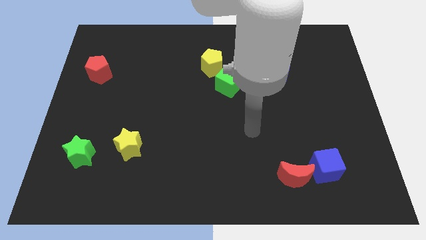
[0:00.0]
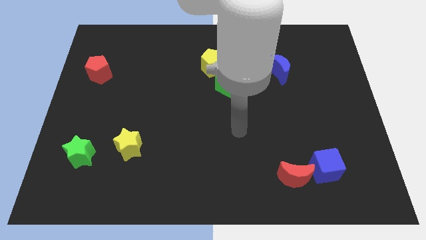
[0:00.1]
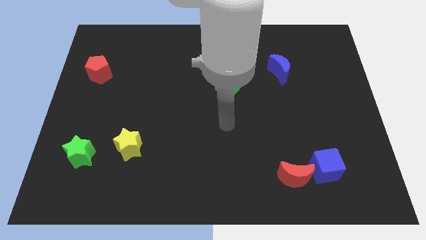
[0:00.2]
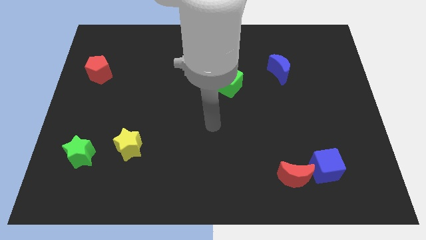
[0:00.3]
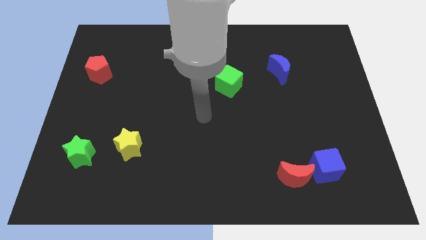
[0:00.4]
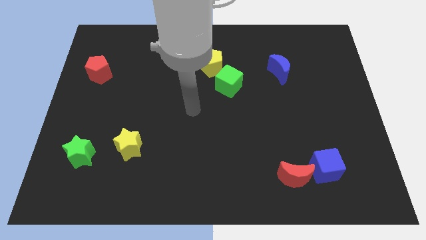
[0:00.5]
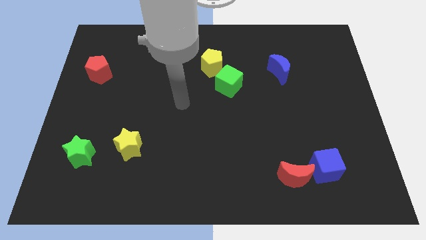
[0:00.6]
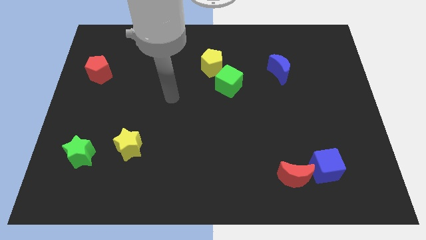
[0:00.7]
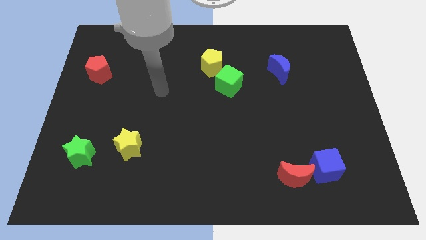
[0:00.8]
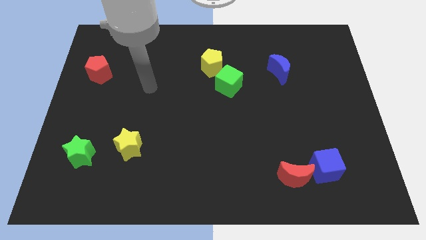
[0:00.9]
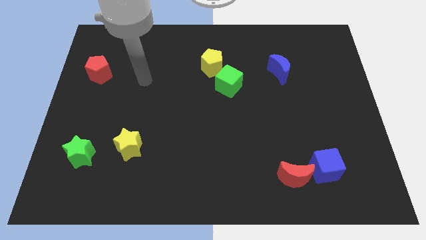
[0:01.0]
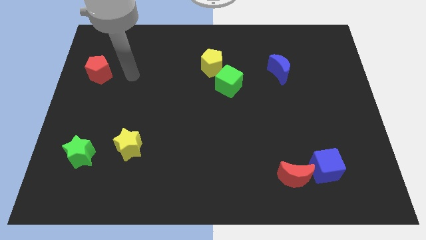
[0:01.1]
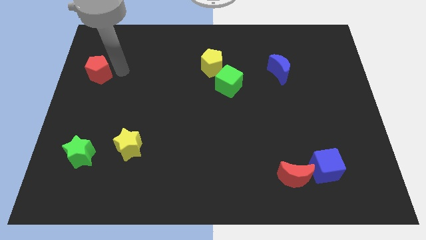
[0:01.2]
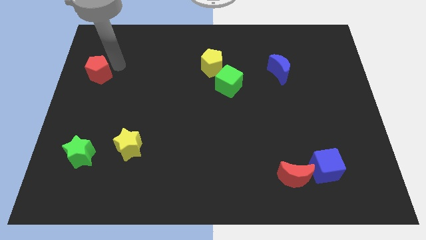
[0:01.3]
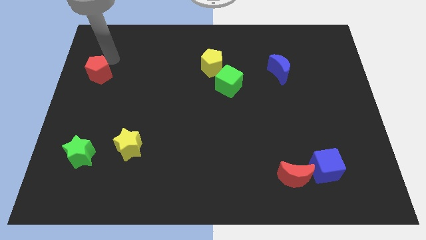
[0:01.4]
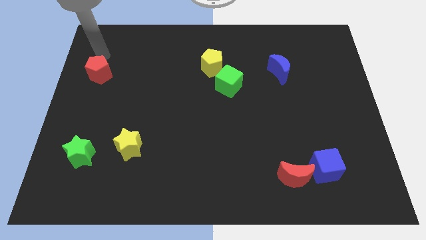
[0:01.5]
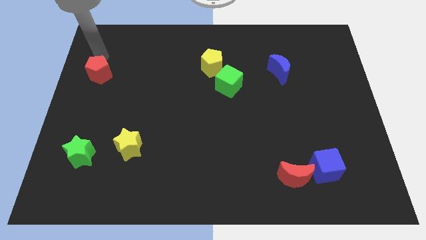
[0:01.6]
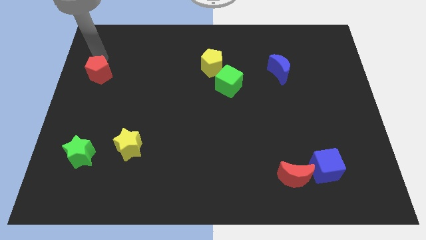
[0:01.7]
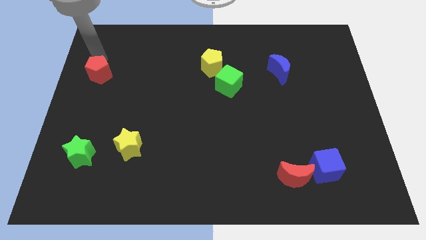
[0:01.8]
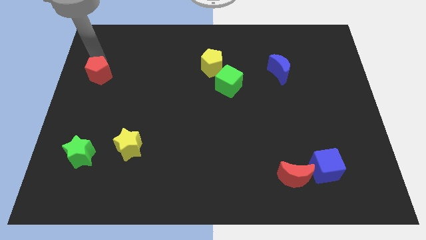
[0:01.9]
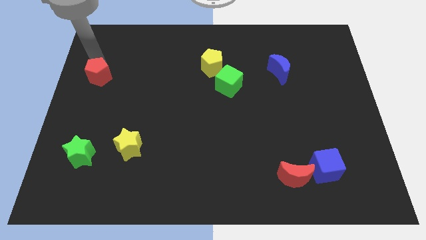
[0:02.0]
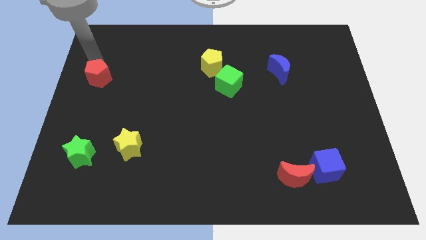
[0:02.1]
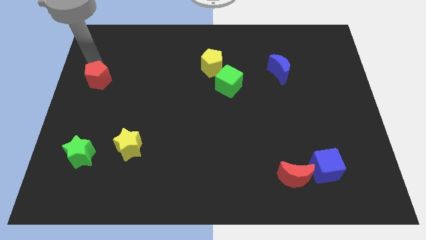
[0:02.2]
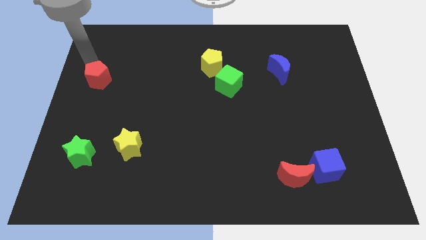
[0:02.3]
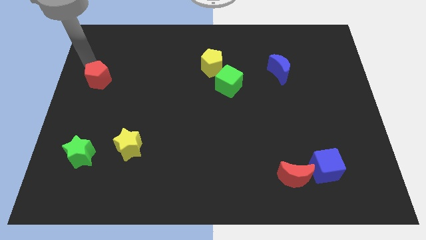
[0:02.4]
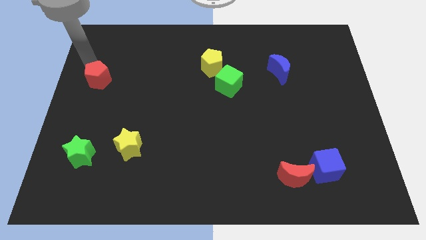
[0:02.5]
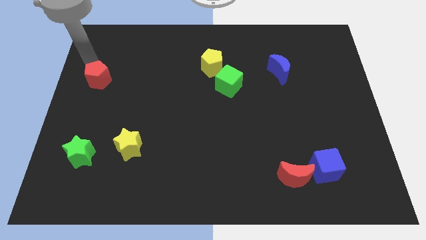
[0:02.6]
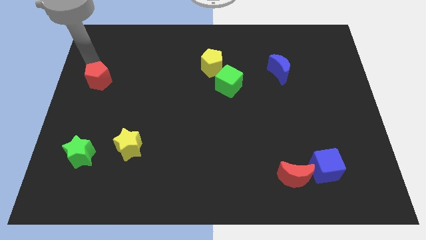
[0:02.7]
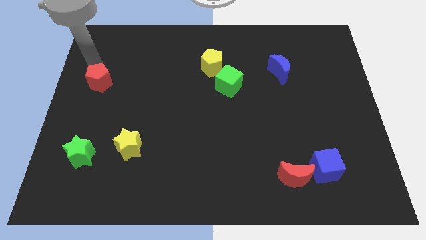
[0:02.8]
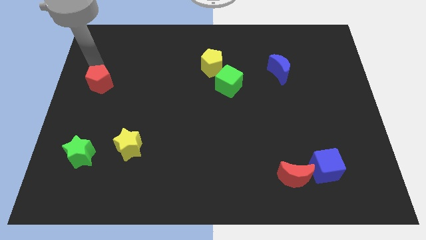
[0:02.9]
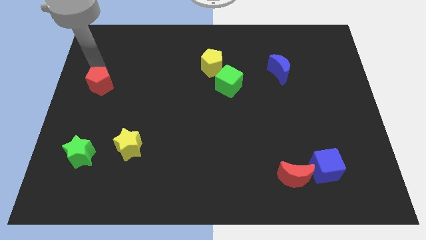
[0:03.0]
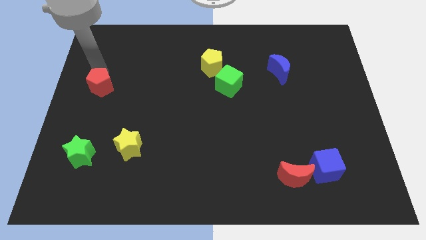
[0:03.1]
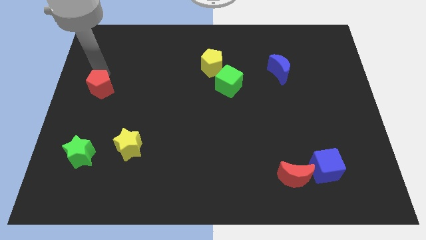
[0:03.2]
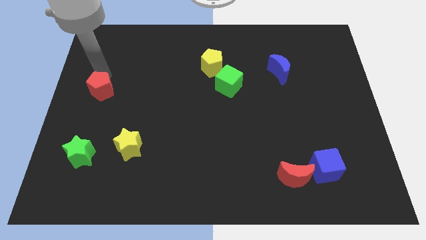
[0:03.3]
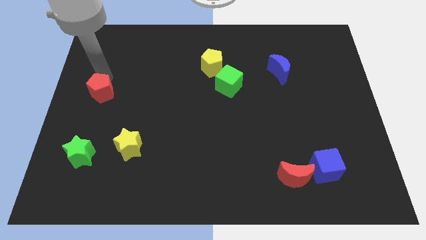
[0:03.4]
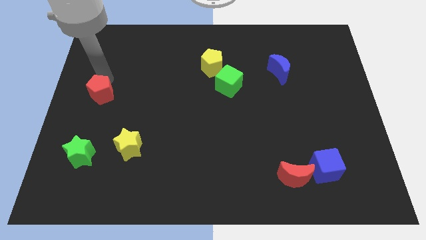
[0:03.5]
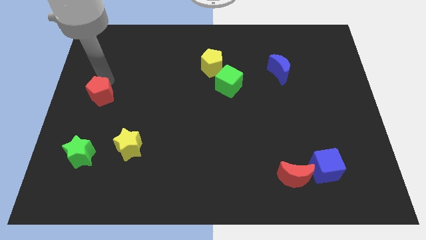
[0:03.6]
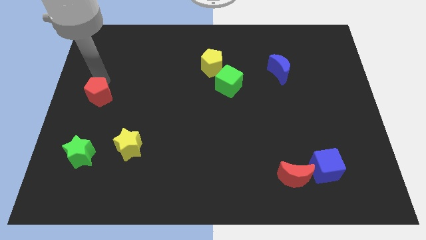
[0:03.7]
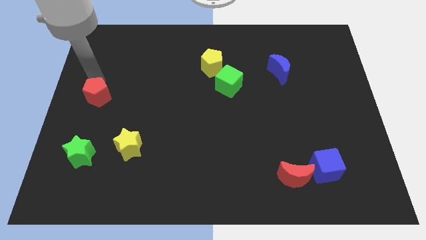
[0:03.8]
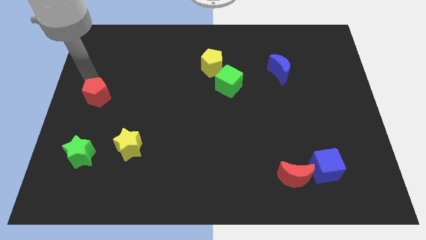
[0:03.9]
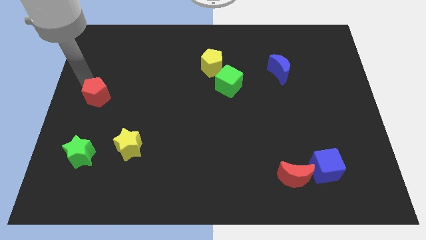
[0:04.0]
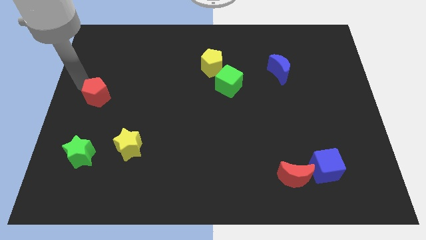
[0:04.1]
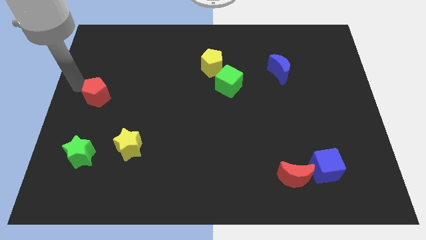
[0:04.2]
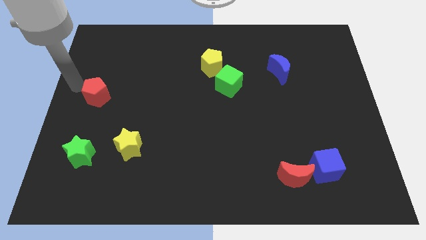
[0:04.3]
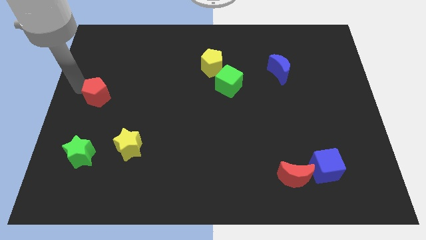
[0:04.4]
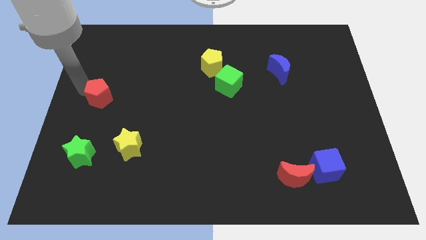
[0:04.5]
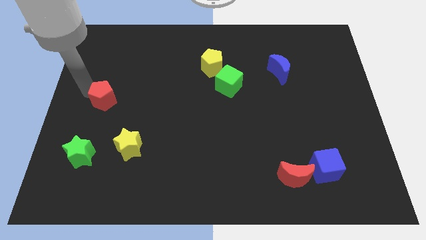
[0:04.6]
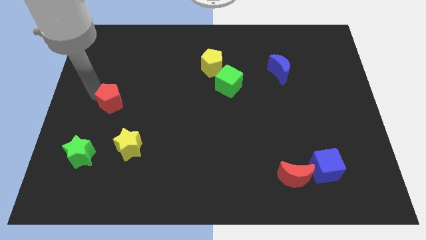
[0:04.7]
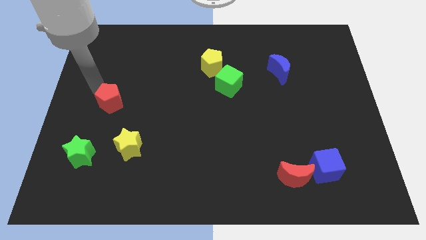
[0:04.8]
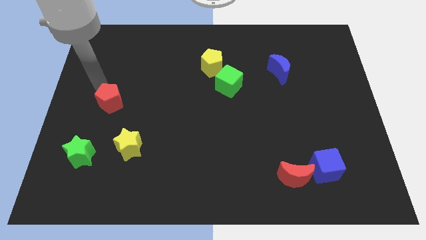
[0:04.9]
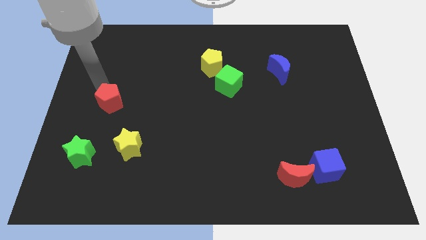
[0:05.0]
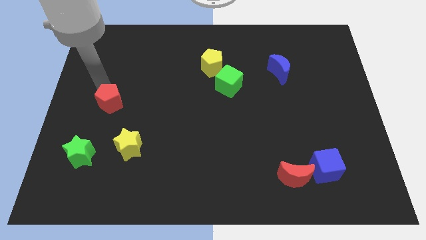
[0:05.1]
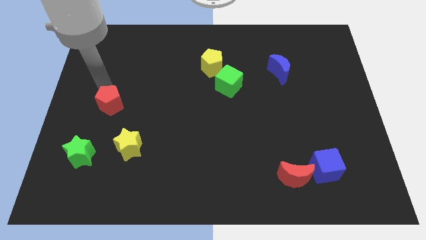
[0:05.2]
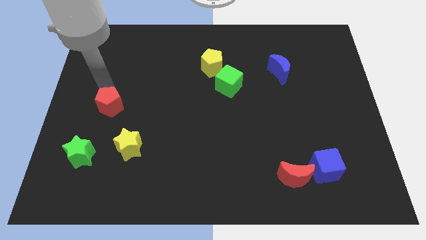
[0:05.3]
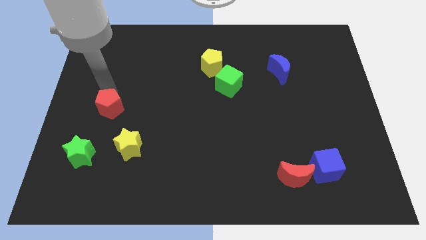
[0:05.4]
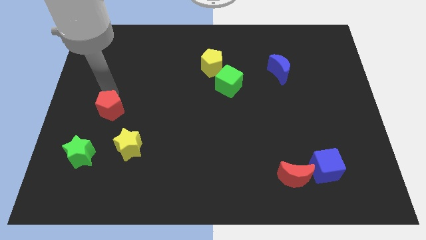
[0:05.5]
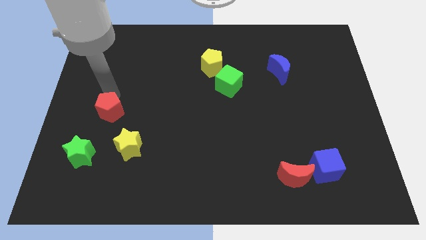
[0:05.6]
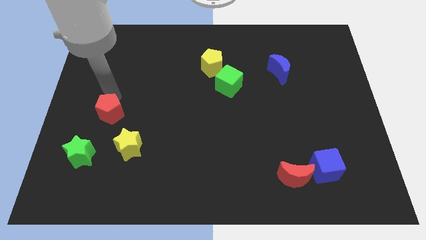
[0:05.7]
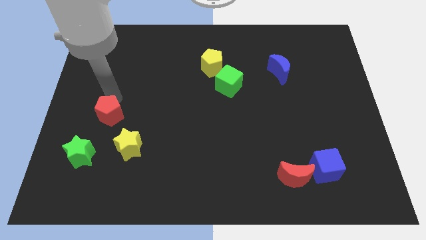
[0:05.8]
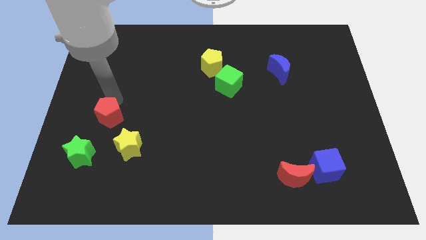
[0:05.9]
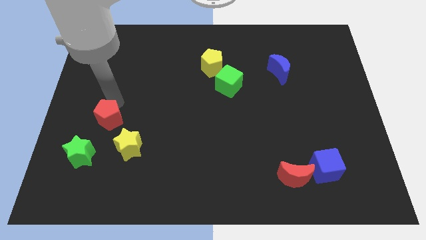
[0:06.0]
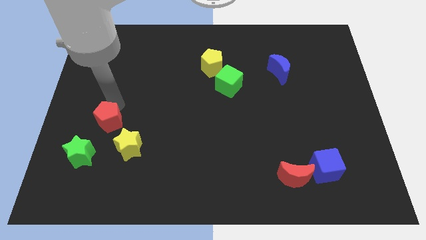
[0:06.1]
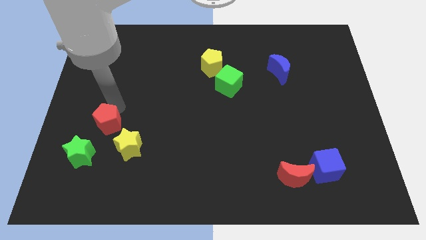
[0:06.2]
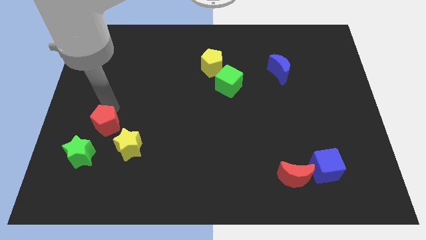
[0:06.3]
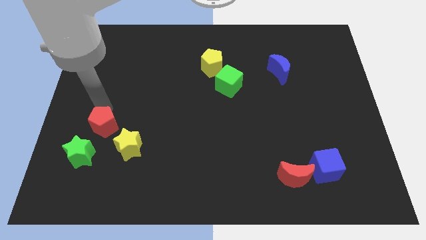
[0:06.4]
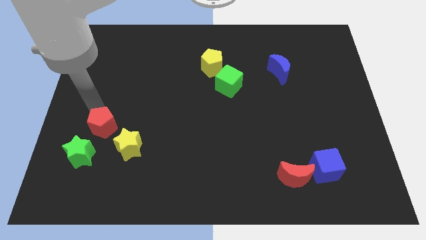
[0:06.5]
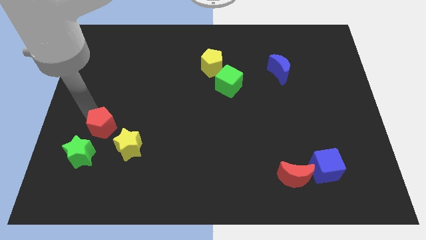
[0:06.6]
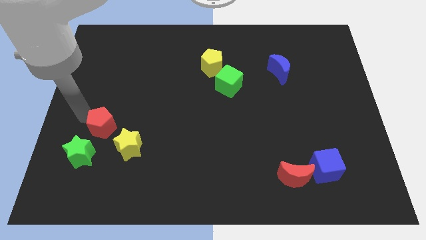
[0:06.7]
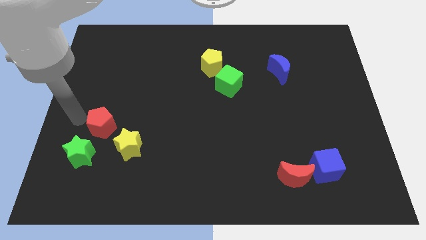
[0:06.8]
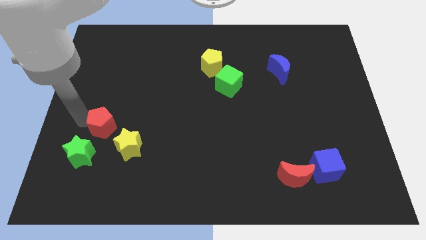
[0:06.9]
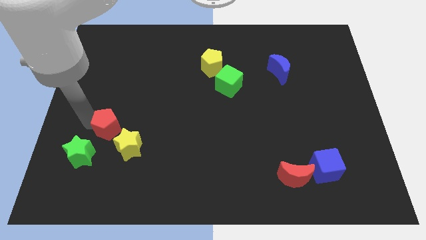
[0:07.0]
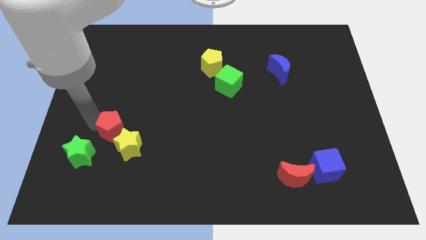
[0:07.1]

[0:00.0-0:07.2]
push the red pentagon next to the yellow star
